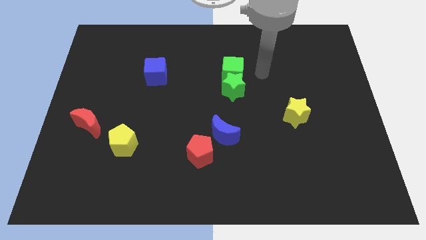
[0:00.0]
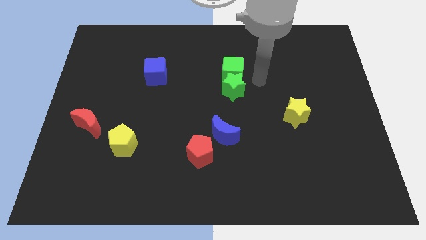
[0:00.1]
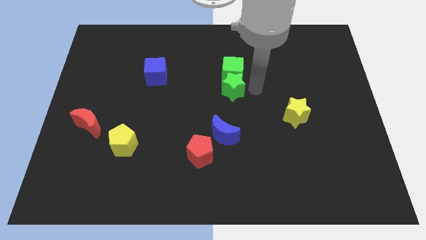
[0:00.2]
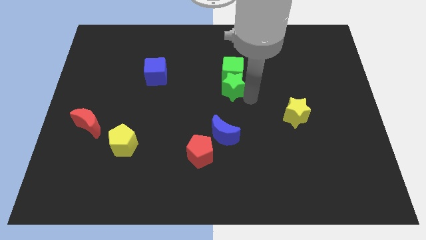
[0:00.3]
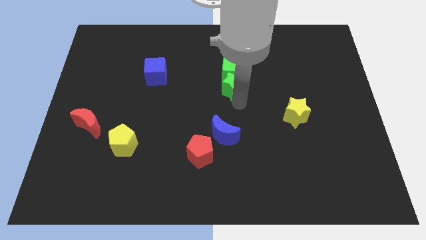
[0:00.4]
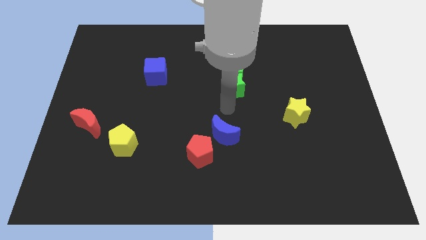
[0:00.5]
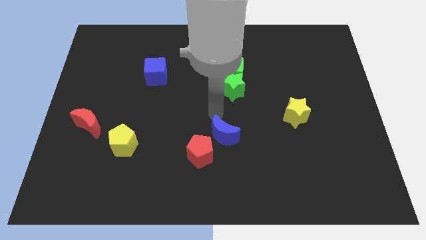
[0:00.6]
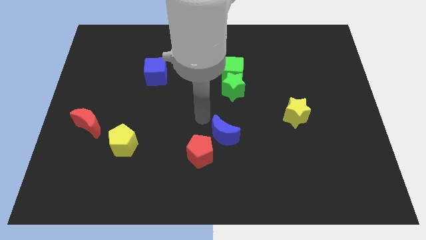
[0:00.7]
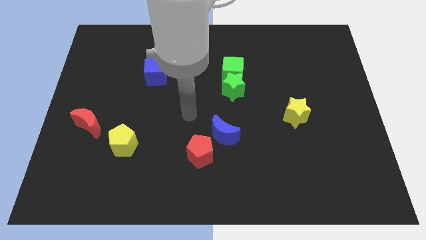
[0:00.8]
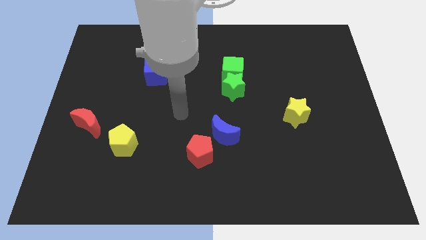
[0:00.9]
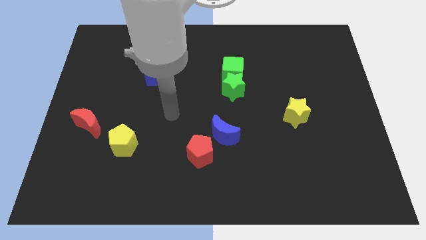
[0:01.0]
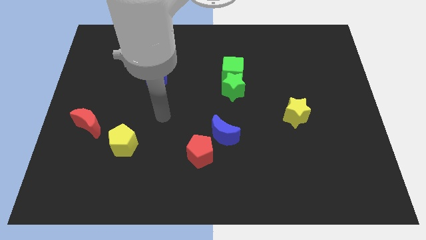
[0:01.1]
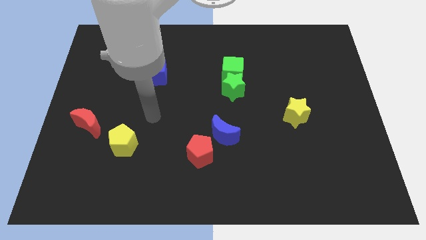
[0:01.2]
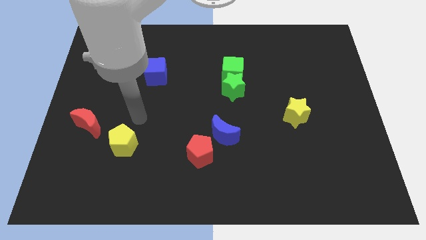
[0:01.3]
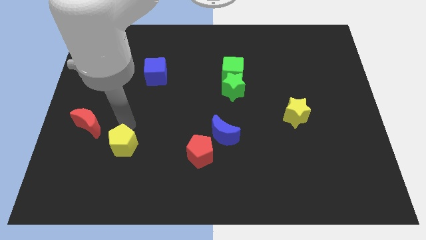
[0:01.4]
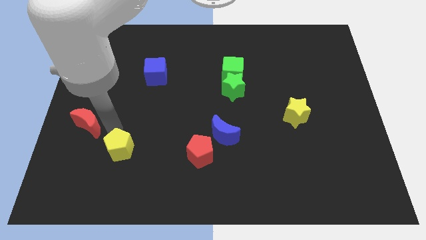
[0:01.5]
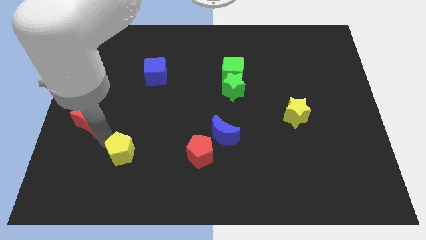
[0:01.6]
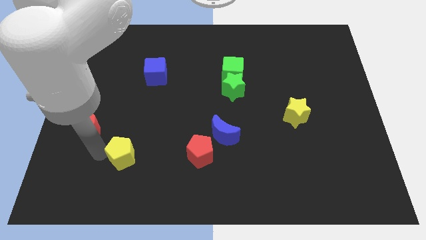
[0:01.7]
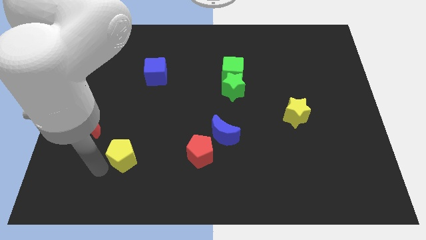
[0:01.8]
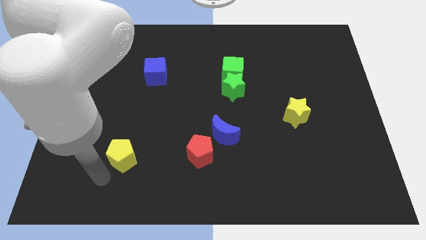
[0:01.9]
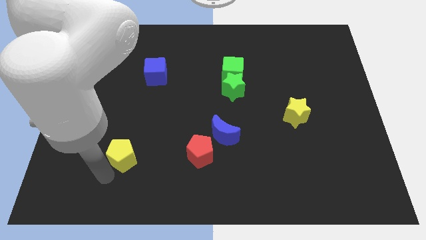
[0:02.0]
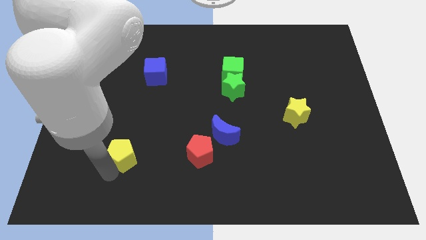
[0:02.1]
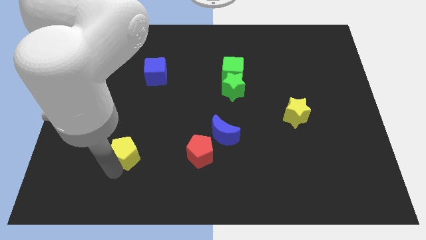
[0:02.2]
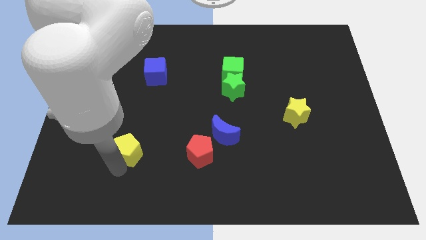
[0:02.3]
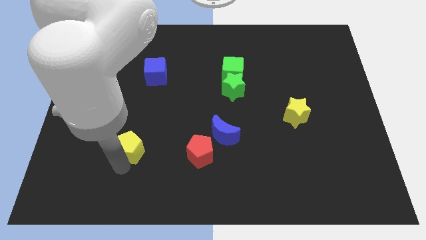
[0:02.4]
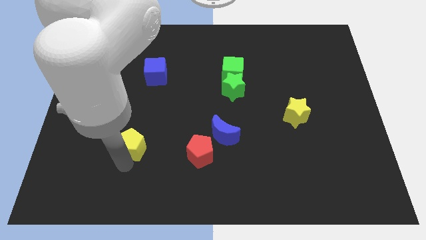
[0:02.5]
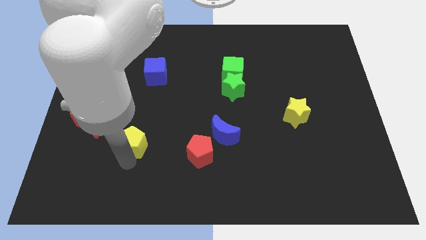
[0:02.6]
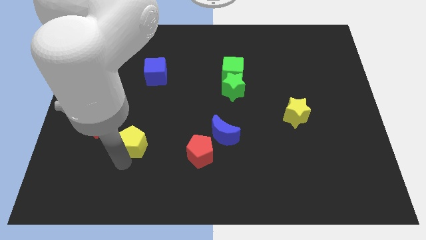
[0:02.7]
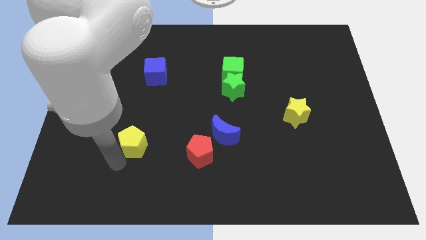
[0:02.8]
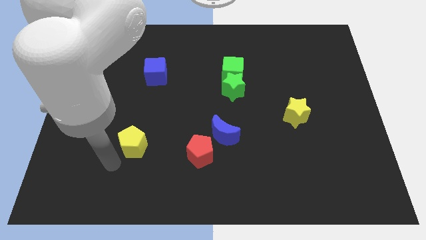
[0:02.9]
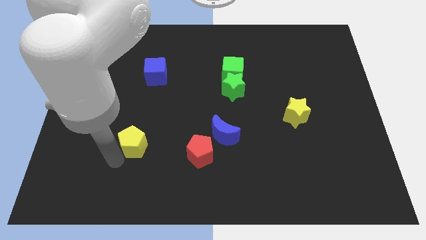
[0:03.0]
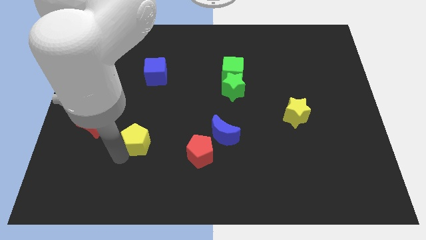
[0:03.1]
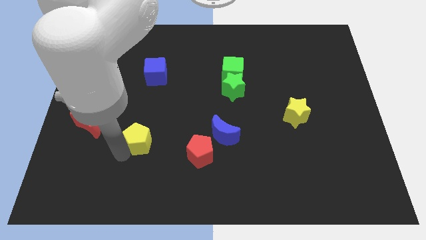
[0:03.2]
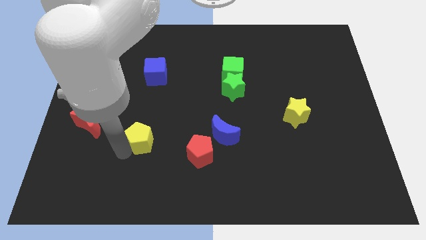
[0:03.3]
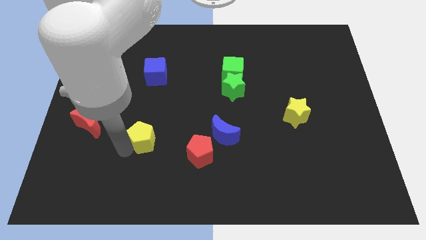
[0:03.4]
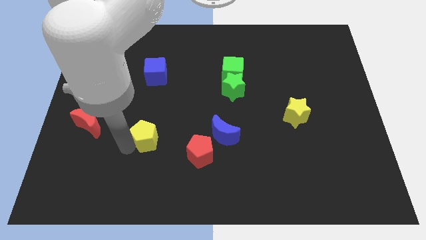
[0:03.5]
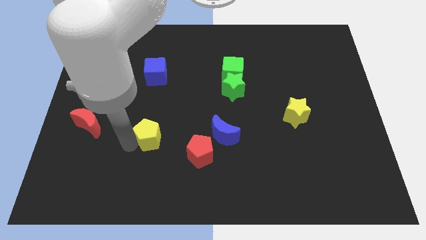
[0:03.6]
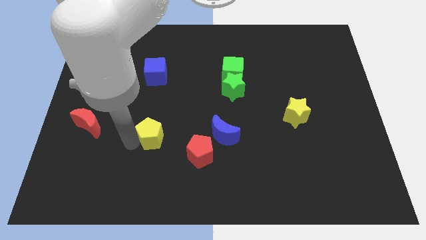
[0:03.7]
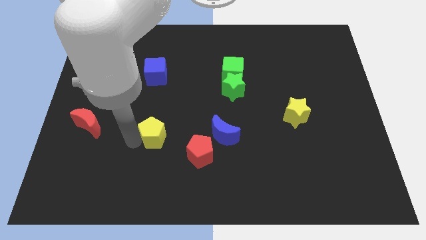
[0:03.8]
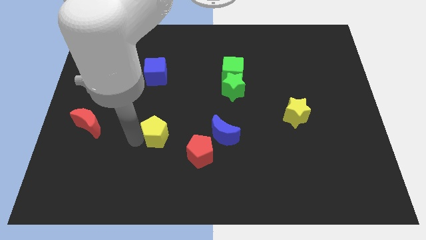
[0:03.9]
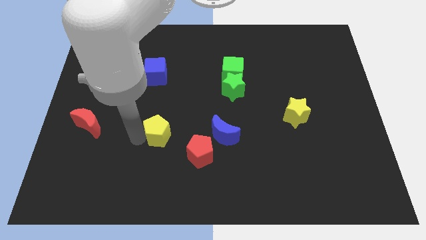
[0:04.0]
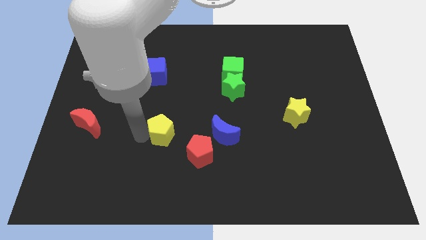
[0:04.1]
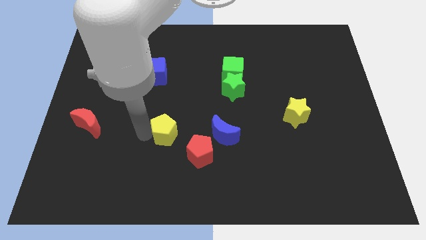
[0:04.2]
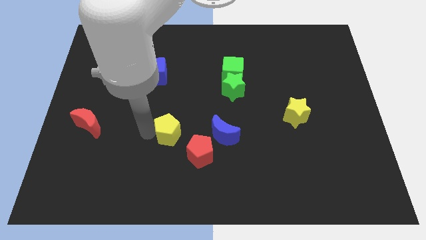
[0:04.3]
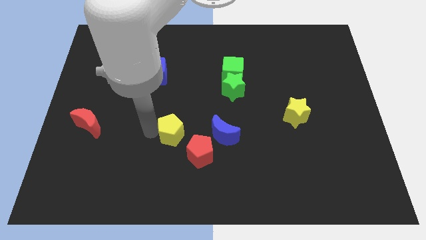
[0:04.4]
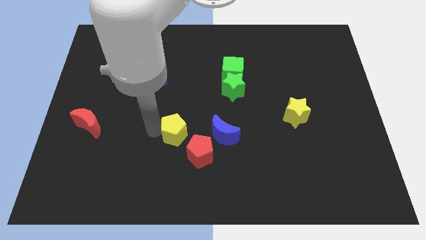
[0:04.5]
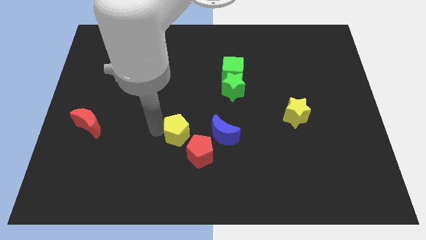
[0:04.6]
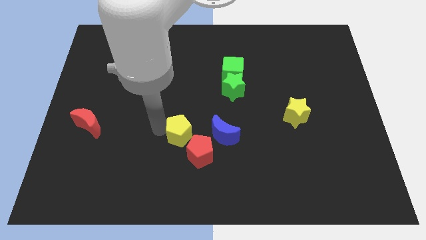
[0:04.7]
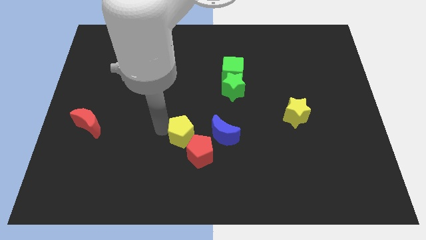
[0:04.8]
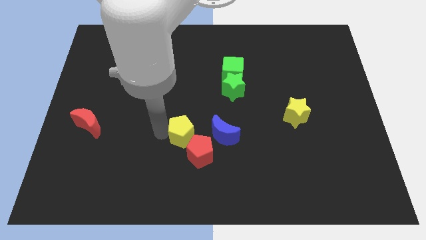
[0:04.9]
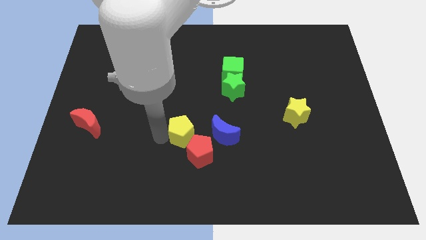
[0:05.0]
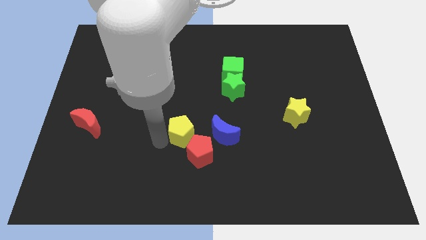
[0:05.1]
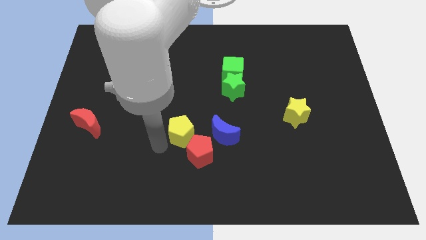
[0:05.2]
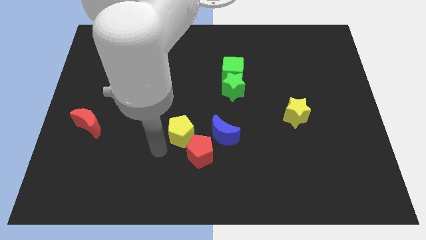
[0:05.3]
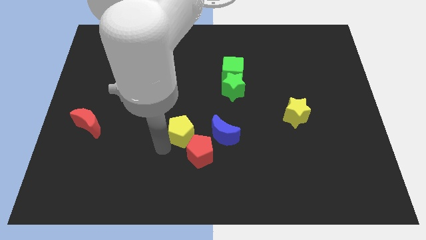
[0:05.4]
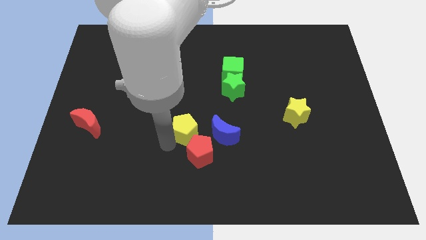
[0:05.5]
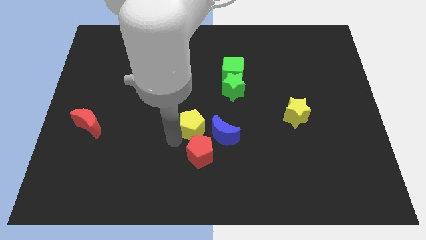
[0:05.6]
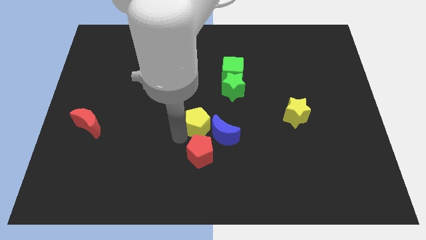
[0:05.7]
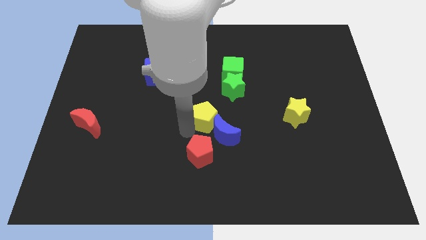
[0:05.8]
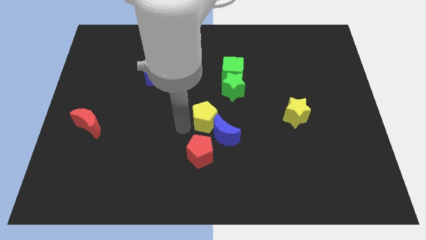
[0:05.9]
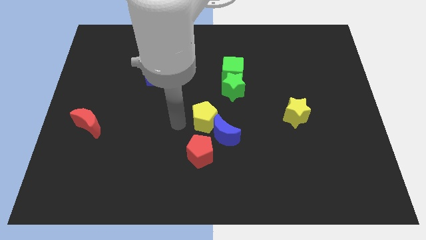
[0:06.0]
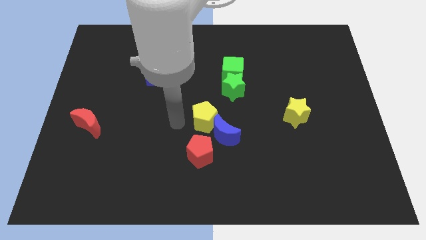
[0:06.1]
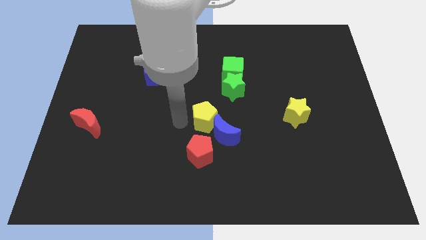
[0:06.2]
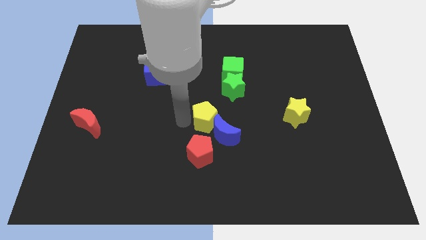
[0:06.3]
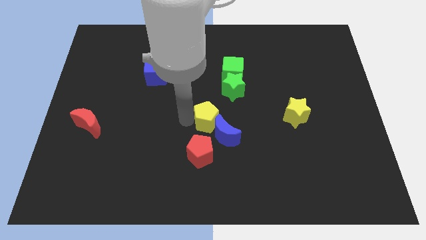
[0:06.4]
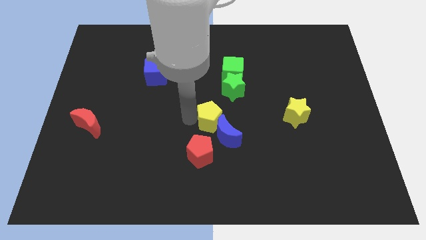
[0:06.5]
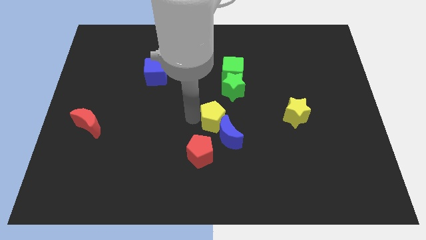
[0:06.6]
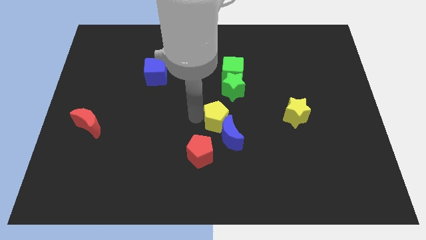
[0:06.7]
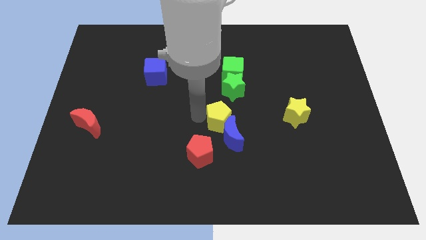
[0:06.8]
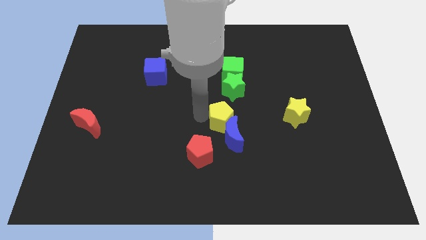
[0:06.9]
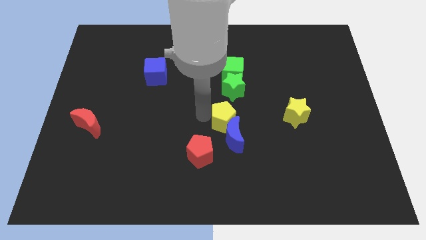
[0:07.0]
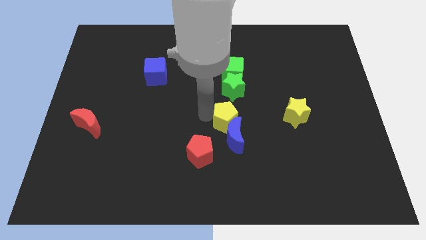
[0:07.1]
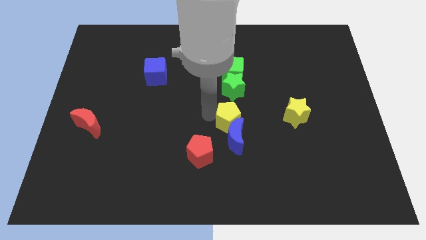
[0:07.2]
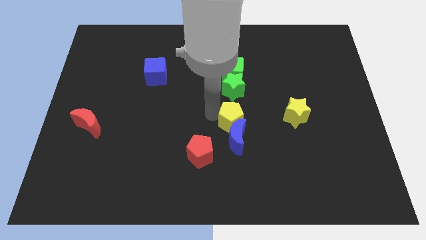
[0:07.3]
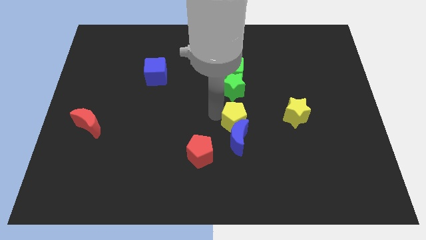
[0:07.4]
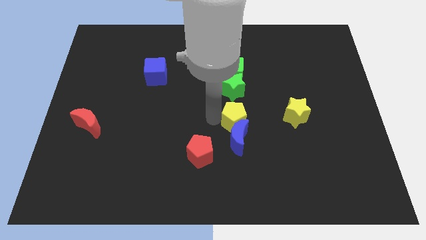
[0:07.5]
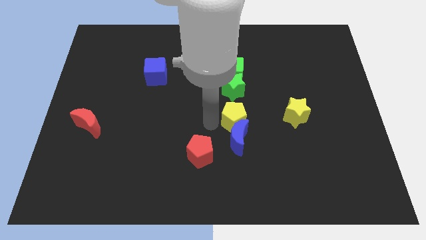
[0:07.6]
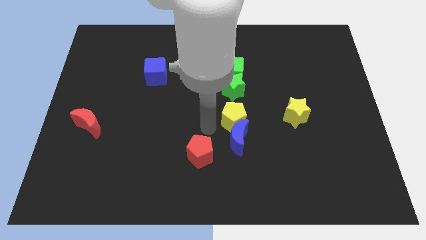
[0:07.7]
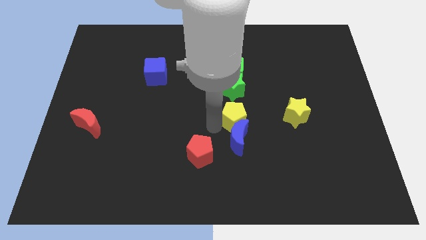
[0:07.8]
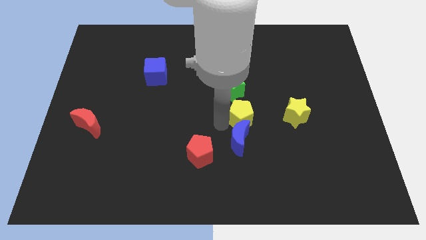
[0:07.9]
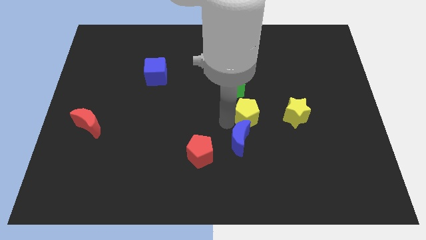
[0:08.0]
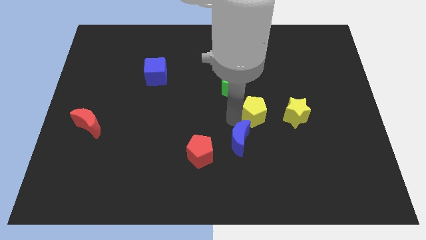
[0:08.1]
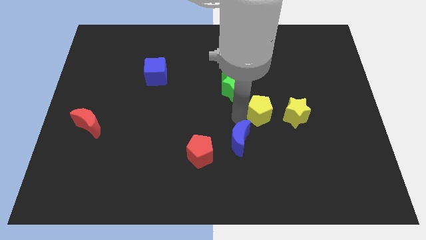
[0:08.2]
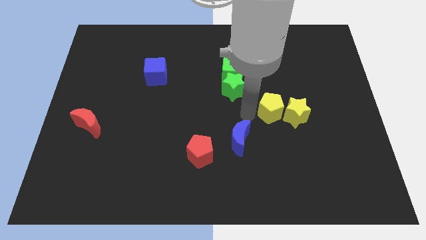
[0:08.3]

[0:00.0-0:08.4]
slide the yellow pentagon to the yellow star
